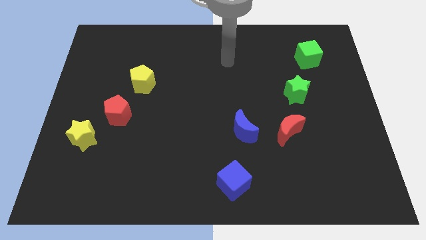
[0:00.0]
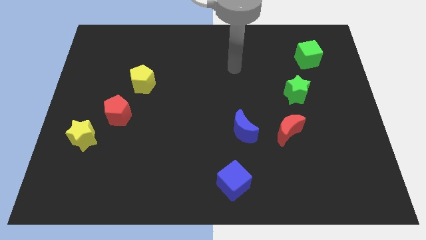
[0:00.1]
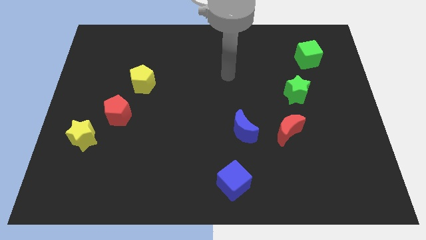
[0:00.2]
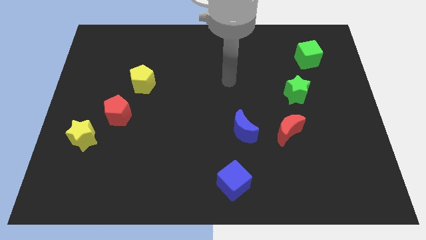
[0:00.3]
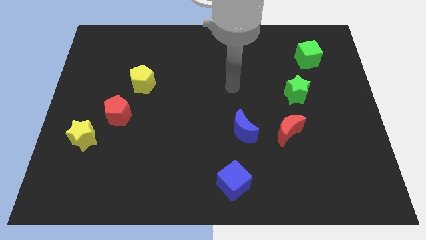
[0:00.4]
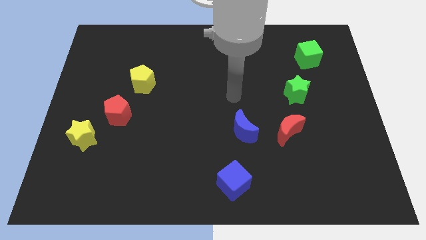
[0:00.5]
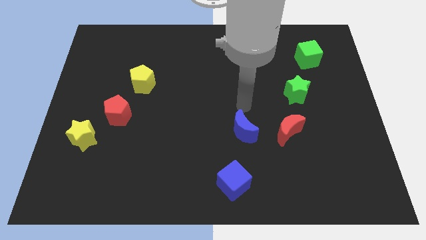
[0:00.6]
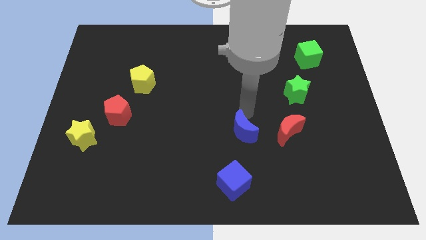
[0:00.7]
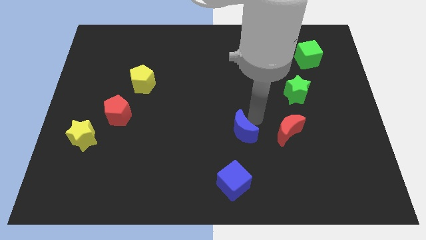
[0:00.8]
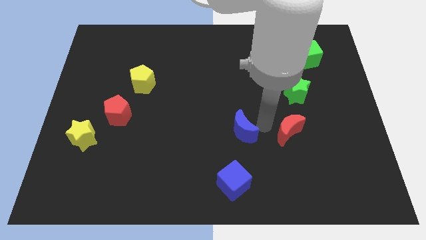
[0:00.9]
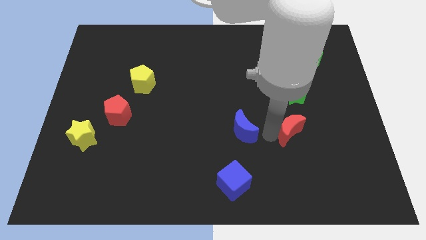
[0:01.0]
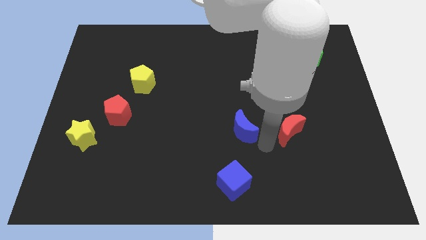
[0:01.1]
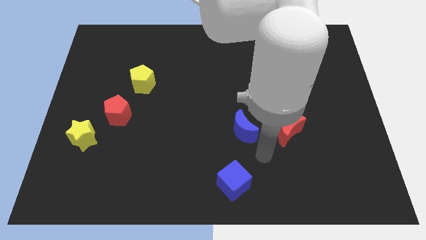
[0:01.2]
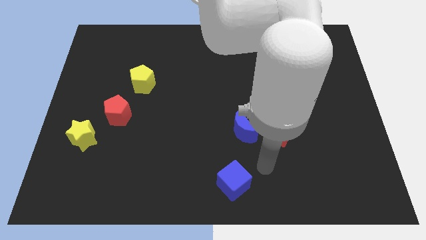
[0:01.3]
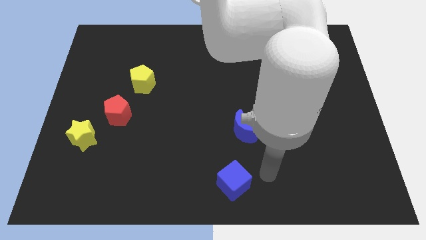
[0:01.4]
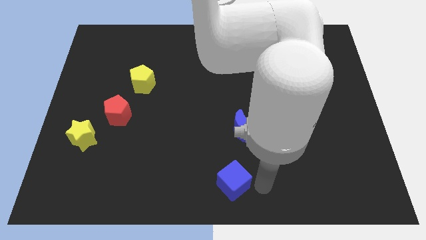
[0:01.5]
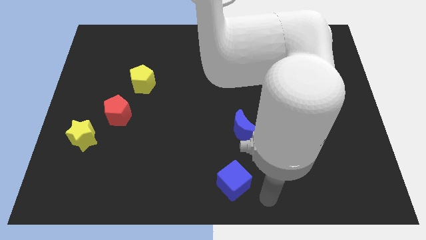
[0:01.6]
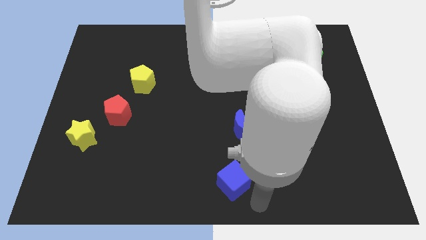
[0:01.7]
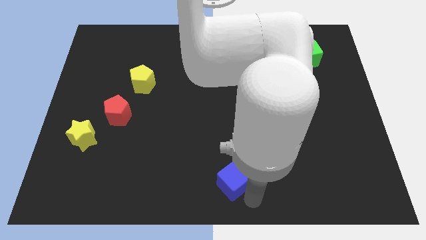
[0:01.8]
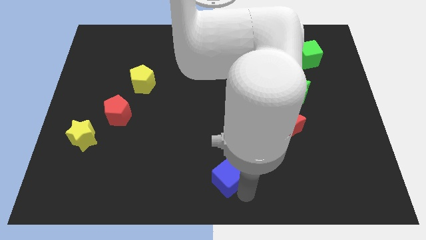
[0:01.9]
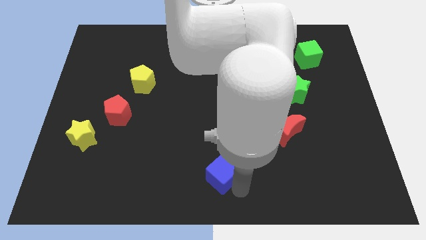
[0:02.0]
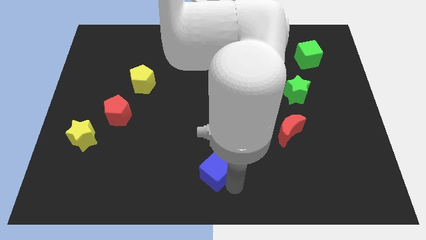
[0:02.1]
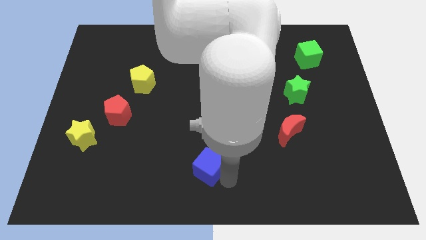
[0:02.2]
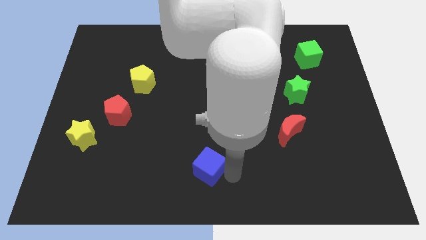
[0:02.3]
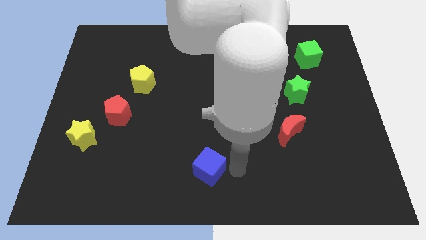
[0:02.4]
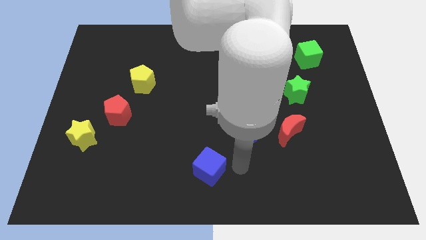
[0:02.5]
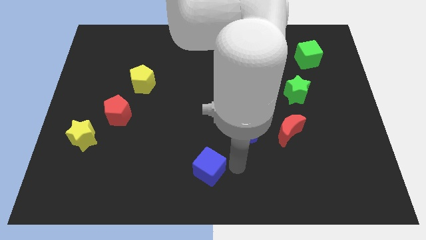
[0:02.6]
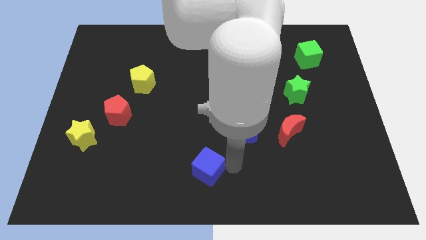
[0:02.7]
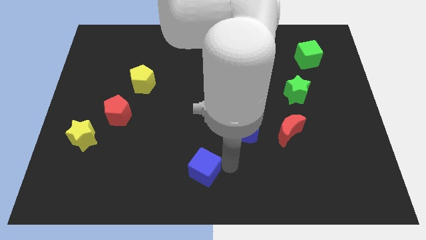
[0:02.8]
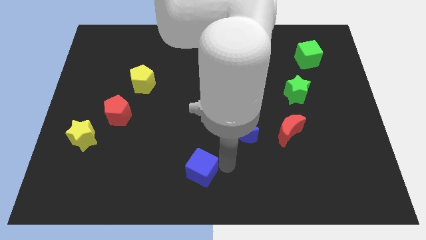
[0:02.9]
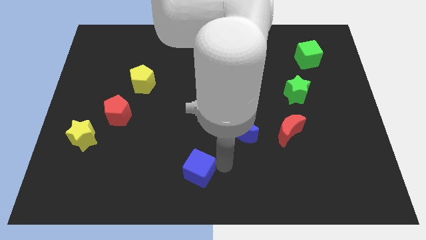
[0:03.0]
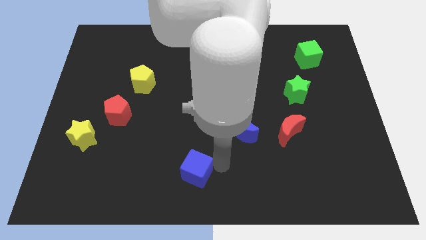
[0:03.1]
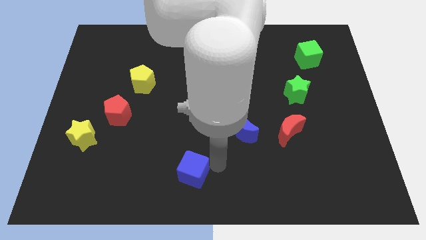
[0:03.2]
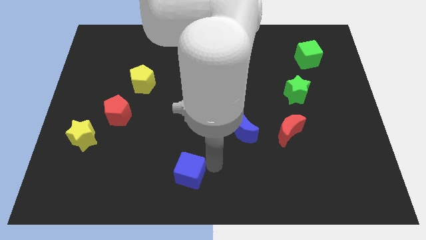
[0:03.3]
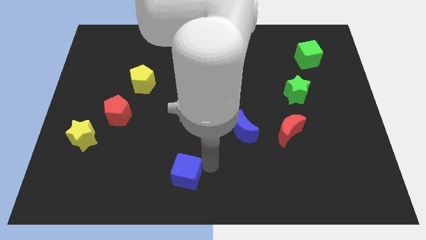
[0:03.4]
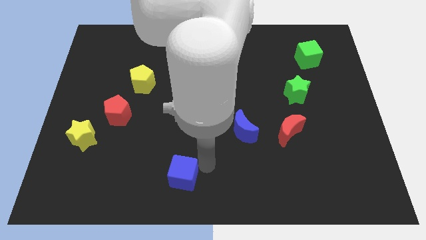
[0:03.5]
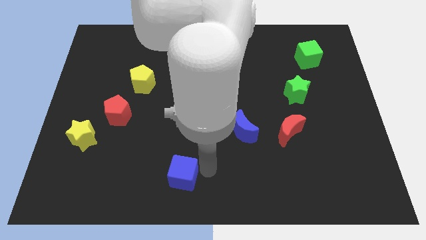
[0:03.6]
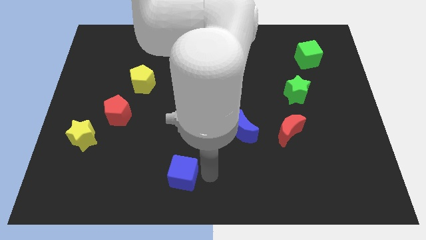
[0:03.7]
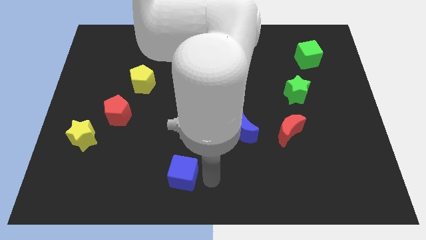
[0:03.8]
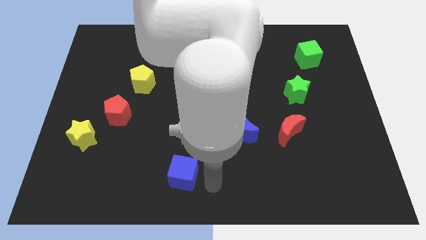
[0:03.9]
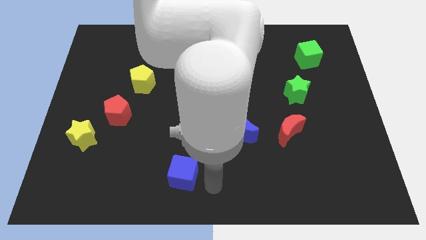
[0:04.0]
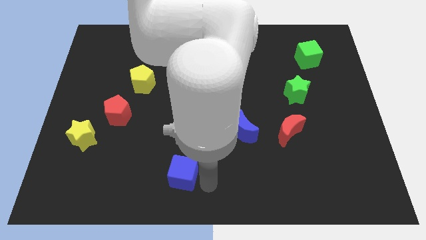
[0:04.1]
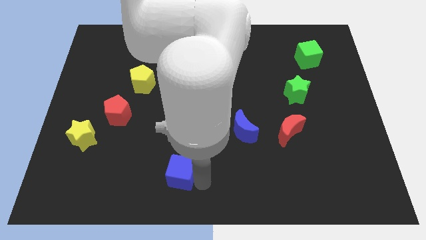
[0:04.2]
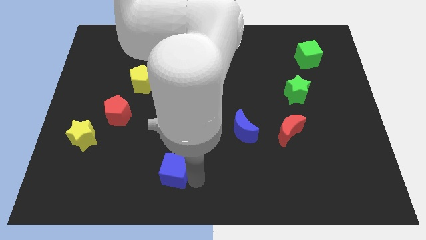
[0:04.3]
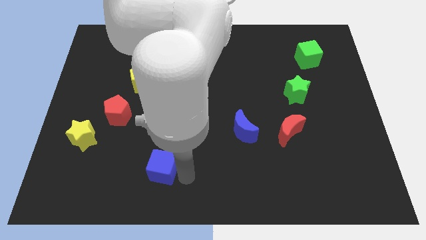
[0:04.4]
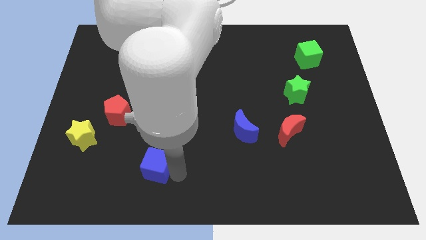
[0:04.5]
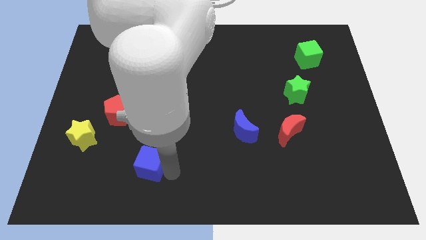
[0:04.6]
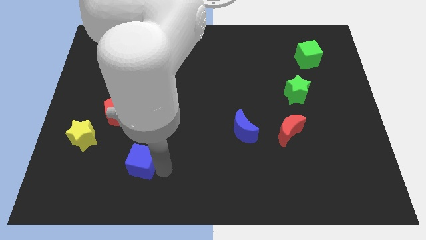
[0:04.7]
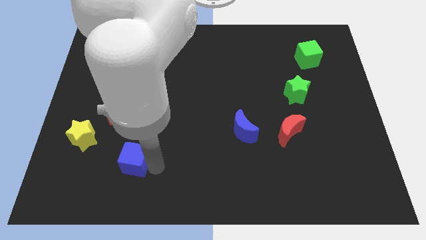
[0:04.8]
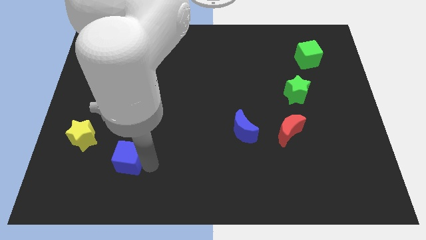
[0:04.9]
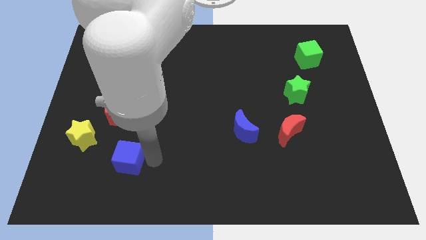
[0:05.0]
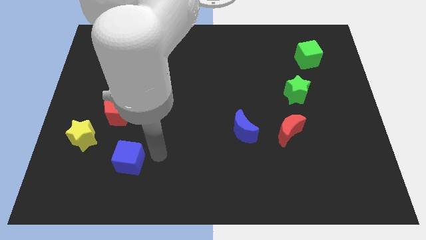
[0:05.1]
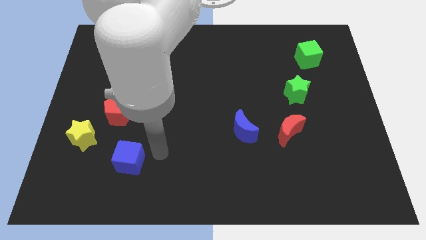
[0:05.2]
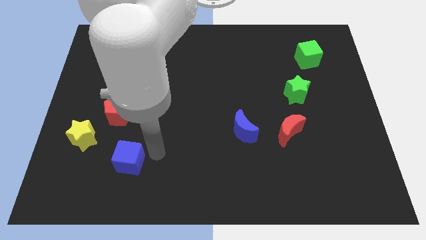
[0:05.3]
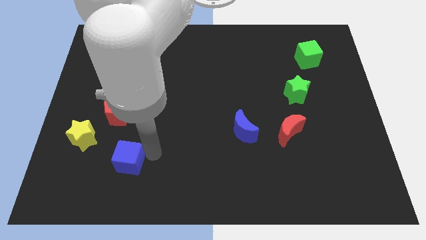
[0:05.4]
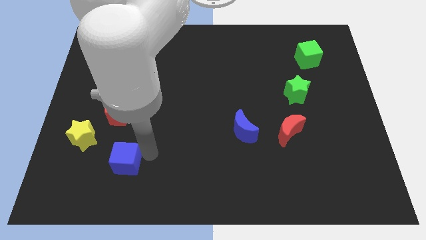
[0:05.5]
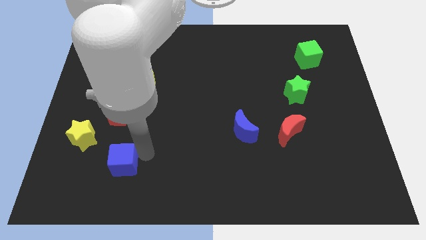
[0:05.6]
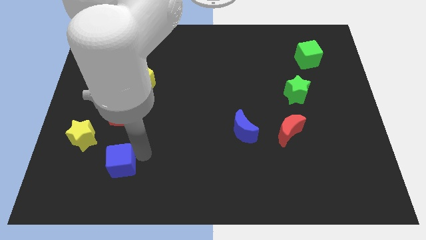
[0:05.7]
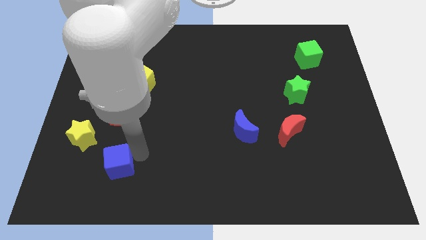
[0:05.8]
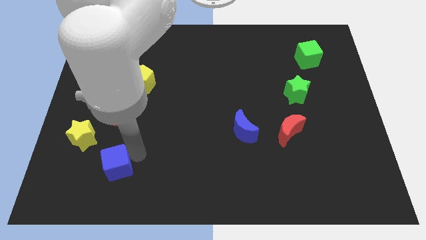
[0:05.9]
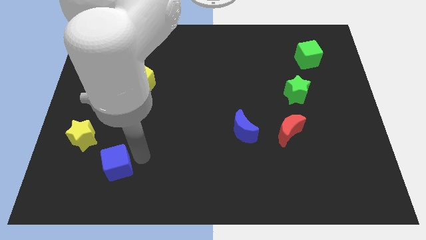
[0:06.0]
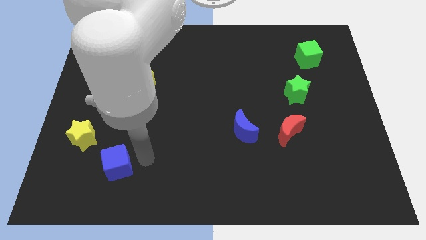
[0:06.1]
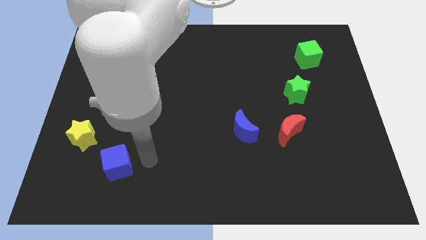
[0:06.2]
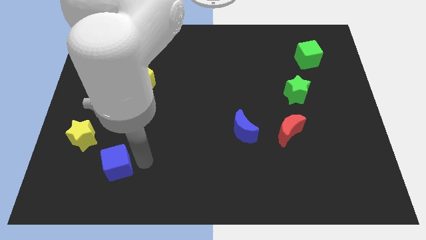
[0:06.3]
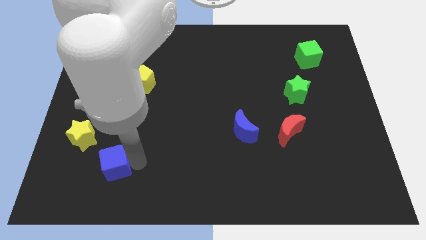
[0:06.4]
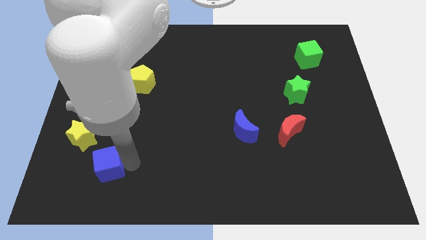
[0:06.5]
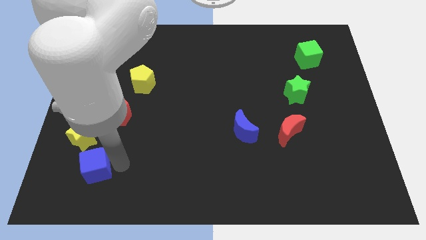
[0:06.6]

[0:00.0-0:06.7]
push the blue cube to the bottom side of the yellow star
